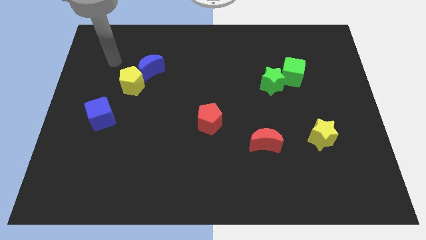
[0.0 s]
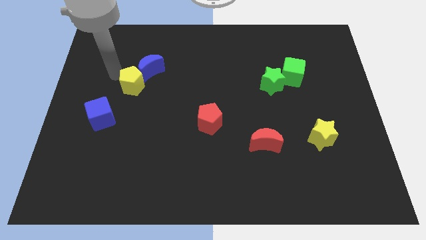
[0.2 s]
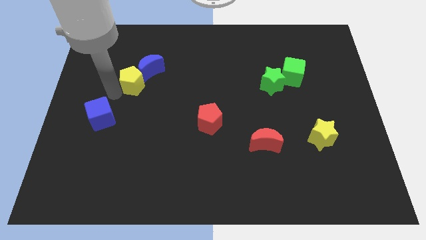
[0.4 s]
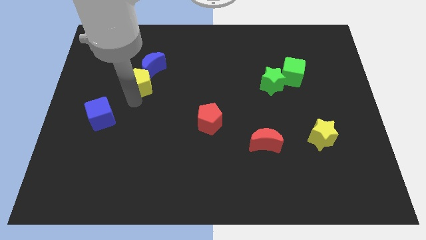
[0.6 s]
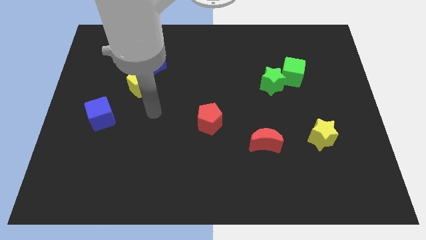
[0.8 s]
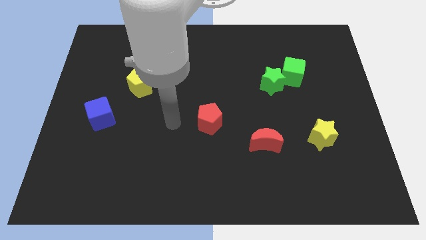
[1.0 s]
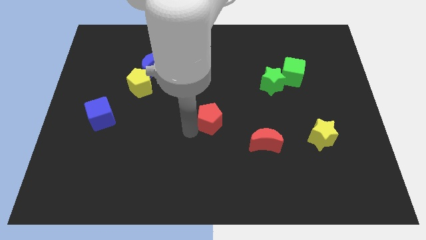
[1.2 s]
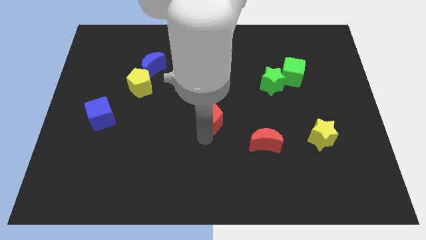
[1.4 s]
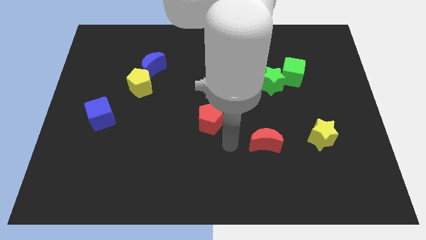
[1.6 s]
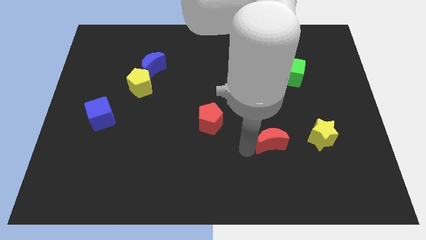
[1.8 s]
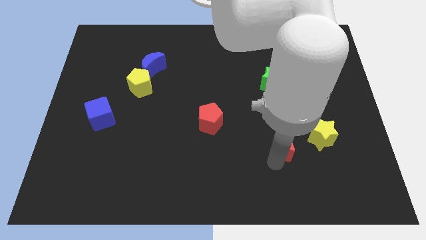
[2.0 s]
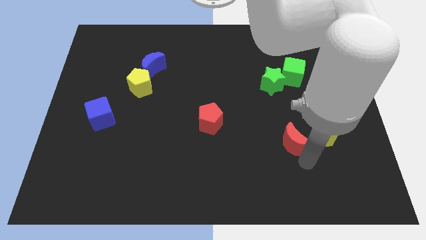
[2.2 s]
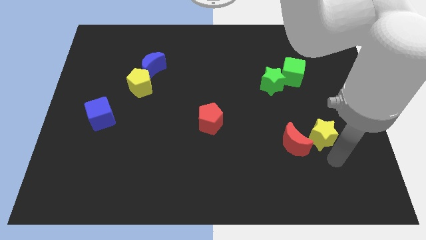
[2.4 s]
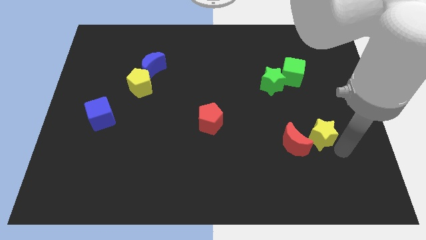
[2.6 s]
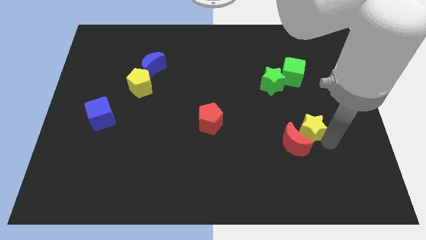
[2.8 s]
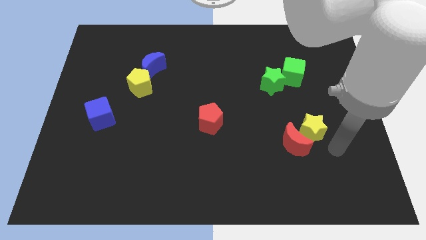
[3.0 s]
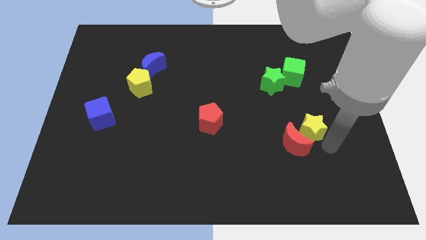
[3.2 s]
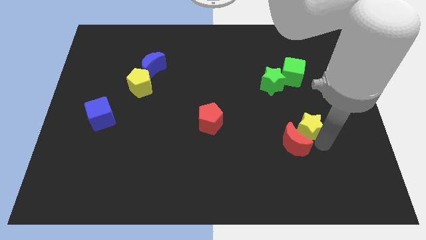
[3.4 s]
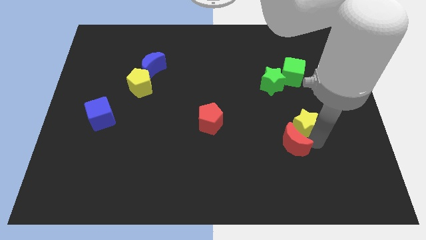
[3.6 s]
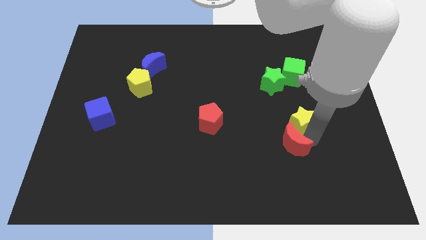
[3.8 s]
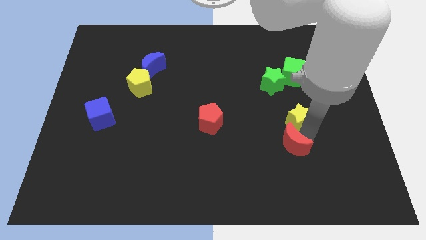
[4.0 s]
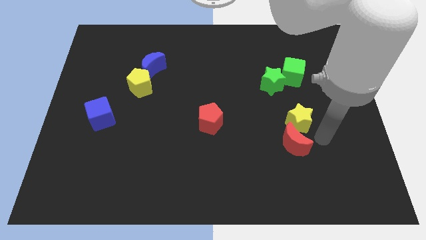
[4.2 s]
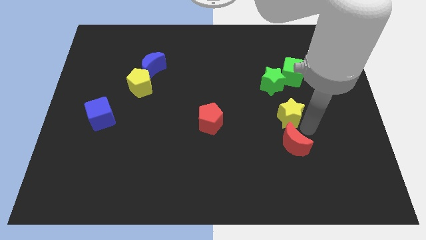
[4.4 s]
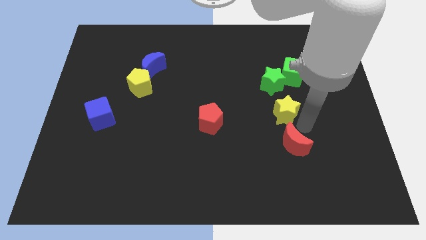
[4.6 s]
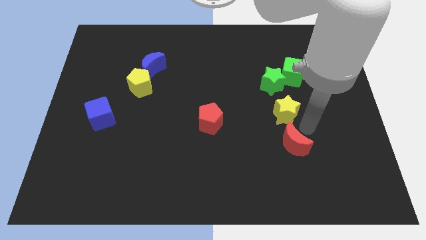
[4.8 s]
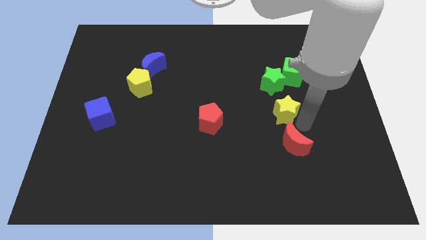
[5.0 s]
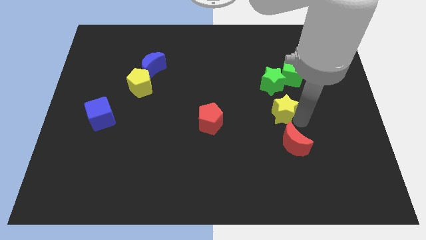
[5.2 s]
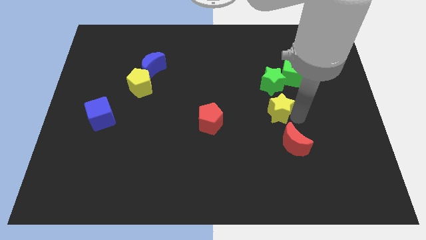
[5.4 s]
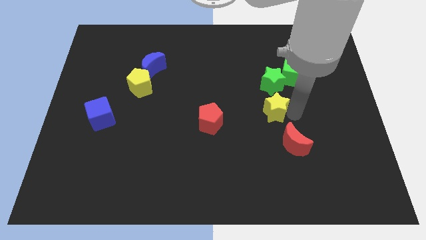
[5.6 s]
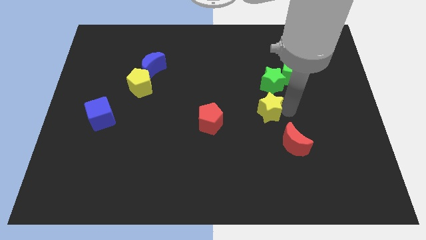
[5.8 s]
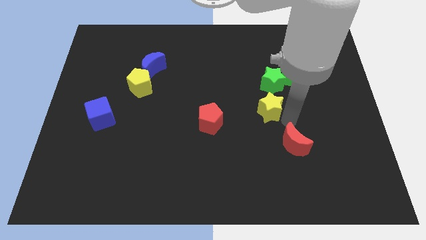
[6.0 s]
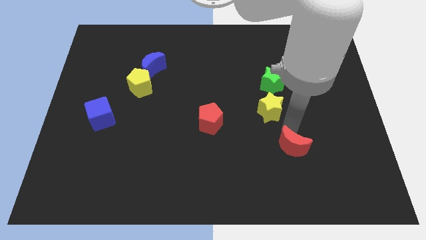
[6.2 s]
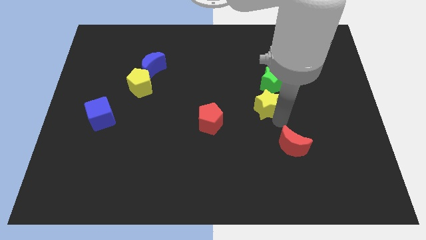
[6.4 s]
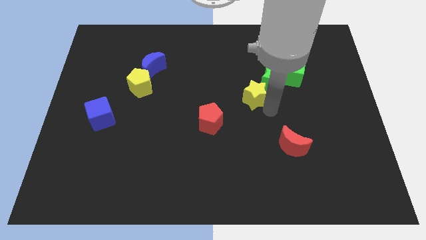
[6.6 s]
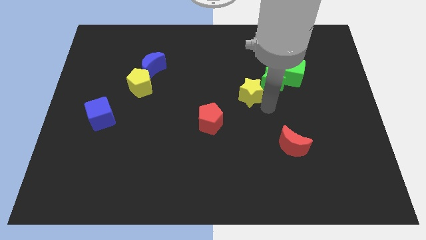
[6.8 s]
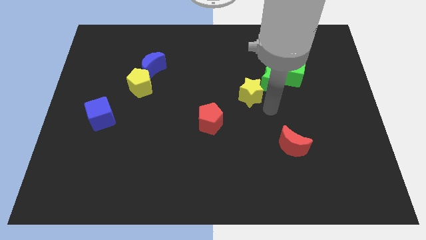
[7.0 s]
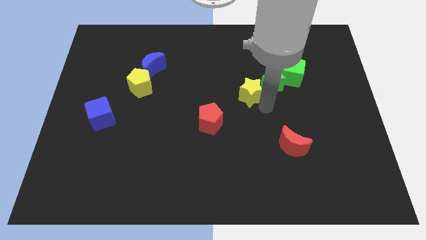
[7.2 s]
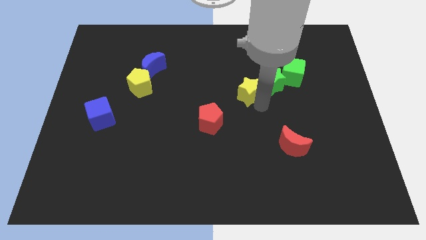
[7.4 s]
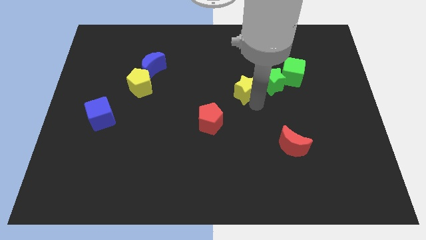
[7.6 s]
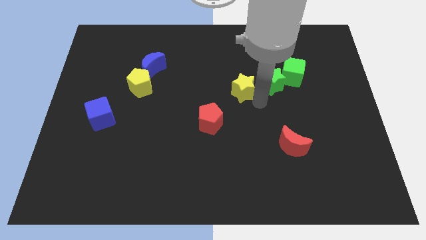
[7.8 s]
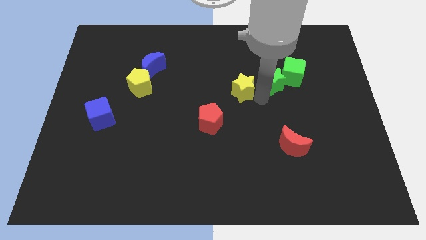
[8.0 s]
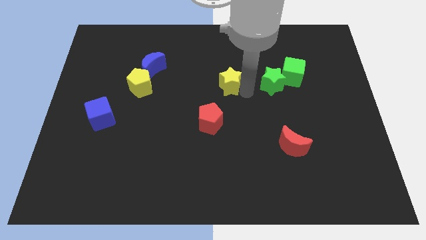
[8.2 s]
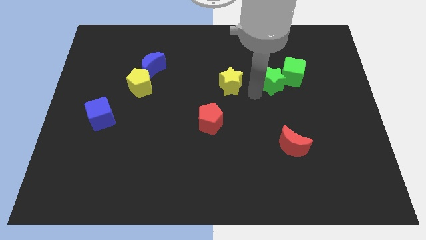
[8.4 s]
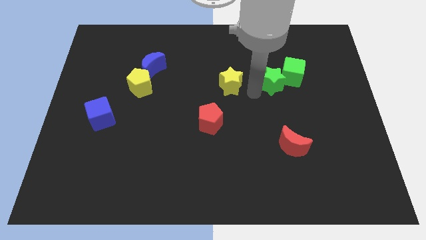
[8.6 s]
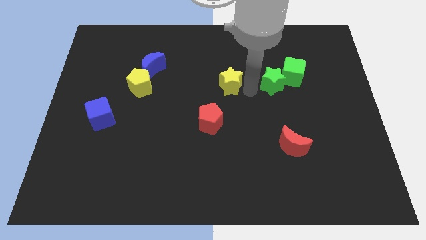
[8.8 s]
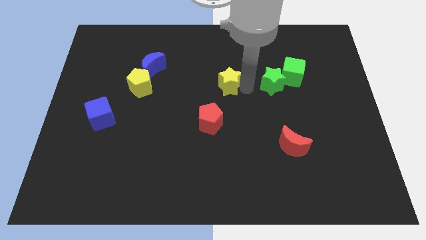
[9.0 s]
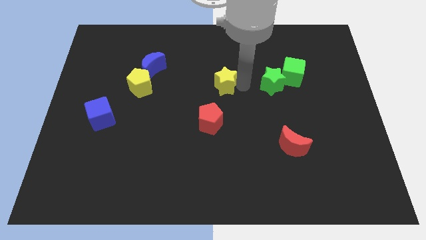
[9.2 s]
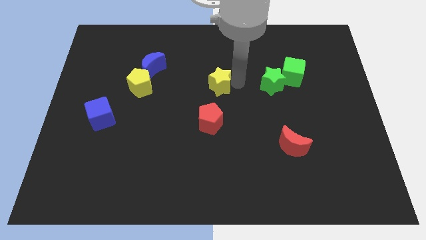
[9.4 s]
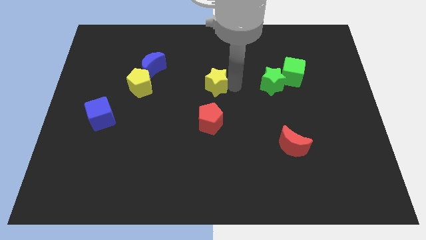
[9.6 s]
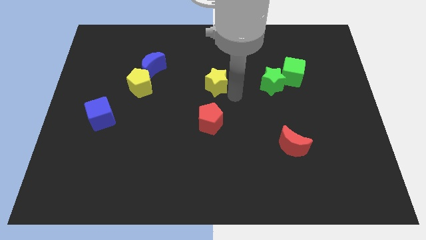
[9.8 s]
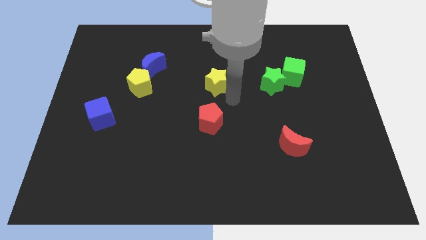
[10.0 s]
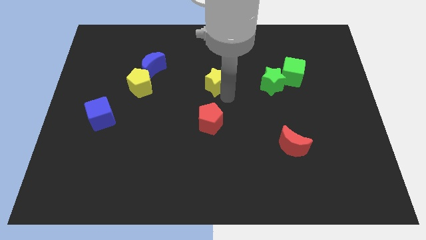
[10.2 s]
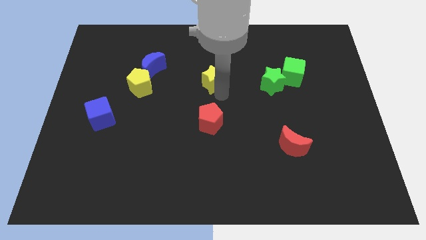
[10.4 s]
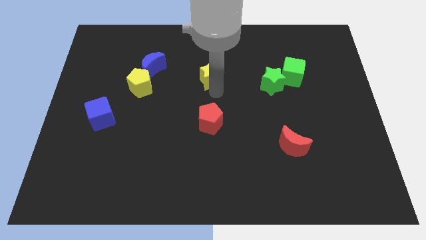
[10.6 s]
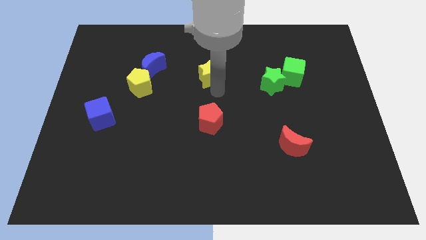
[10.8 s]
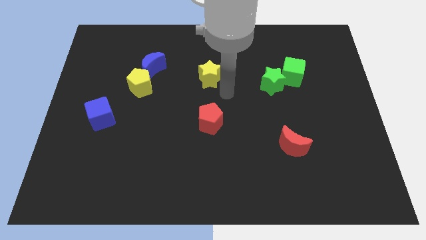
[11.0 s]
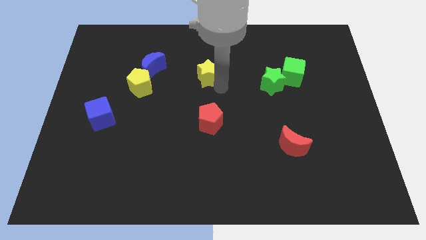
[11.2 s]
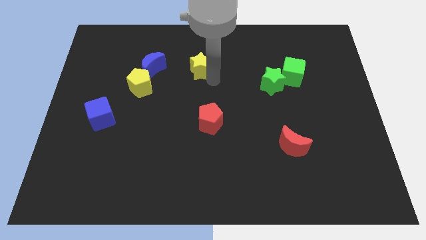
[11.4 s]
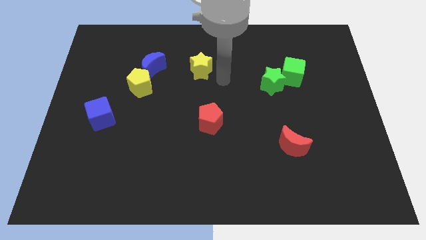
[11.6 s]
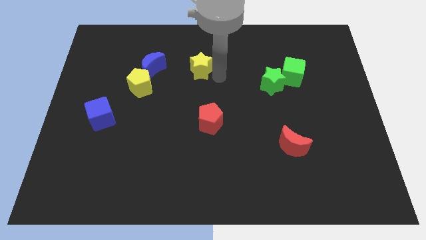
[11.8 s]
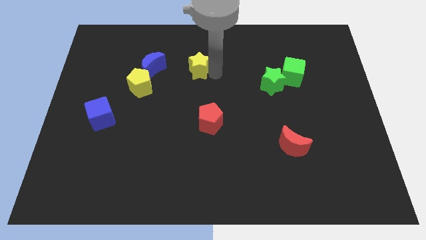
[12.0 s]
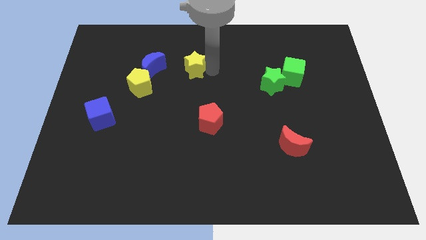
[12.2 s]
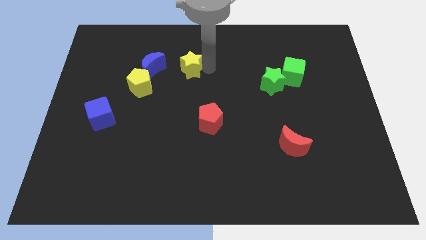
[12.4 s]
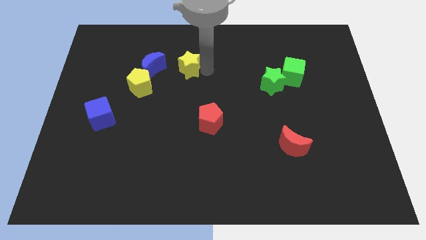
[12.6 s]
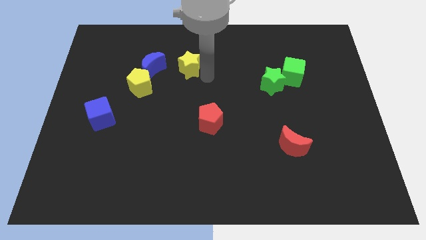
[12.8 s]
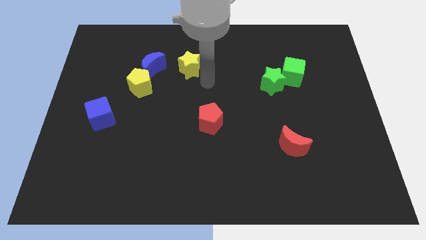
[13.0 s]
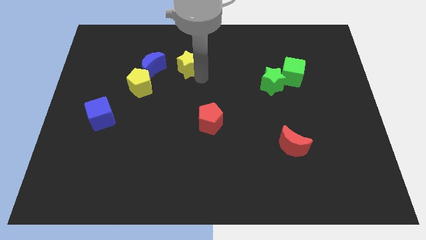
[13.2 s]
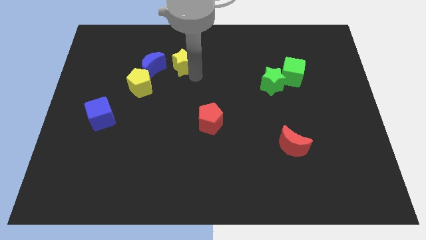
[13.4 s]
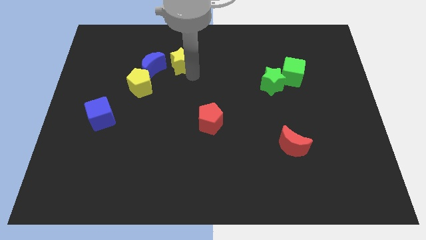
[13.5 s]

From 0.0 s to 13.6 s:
put the yellow star to the top right side of the blue moon
